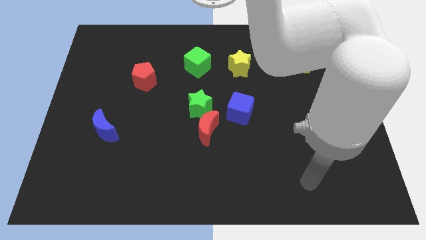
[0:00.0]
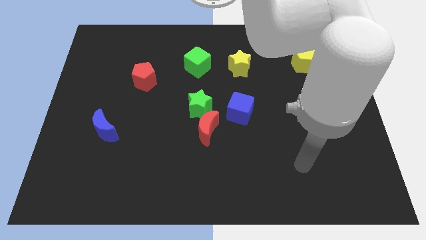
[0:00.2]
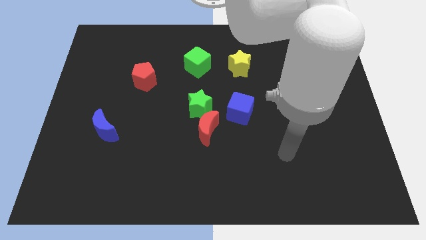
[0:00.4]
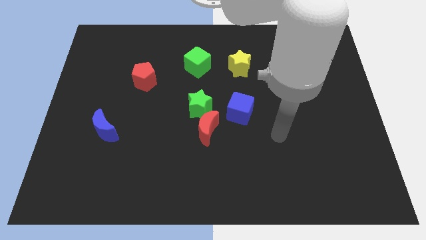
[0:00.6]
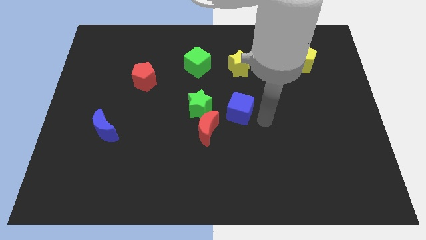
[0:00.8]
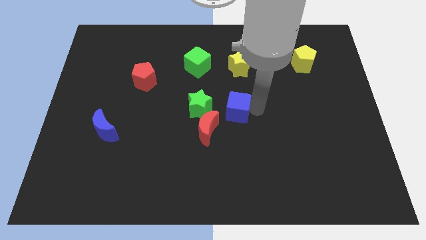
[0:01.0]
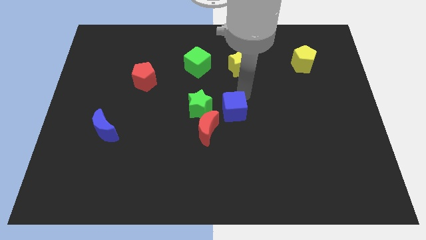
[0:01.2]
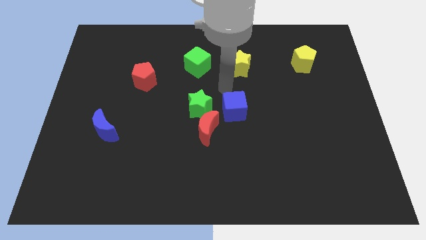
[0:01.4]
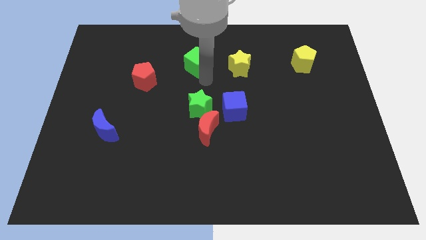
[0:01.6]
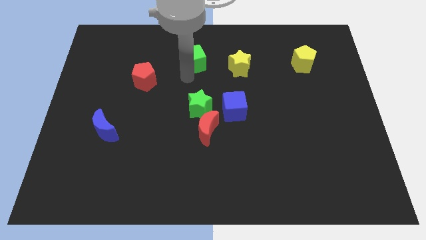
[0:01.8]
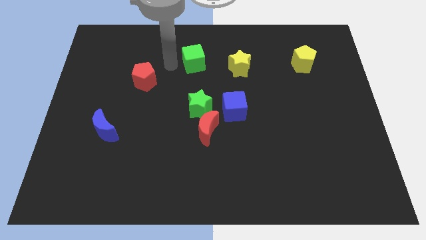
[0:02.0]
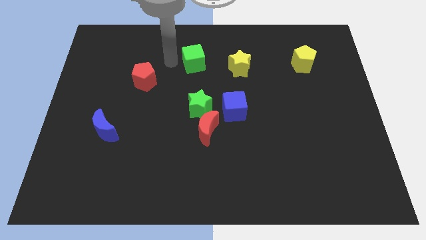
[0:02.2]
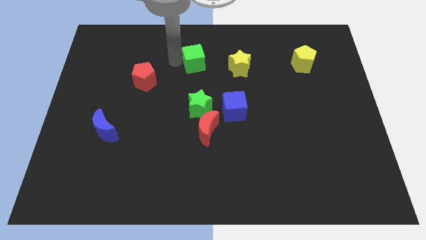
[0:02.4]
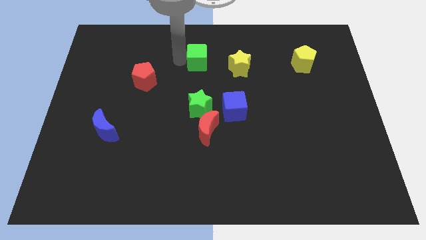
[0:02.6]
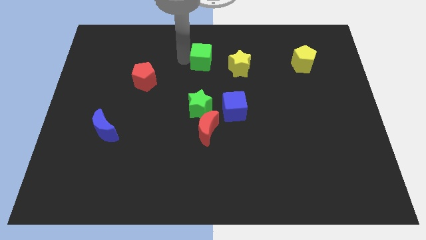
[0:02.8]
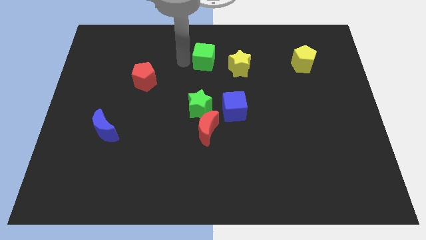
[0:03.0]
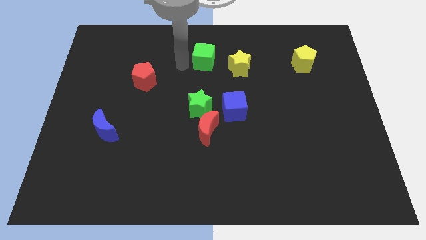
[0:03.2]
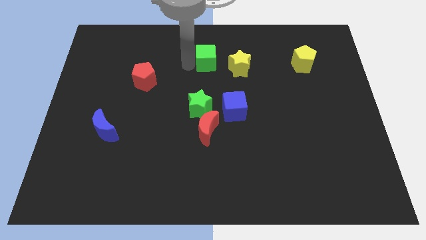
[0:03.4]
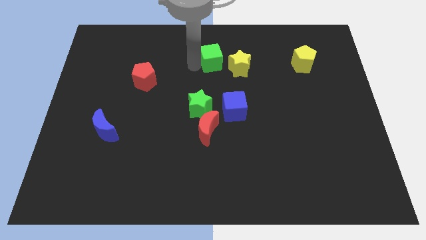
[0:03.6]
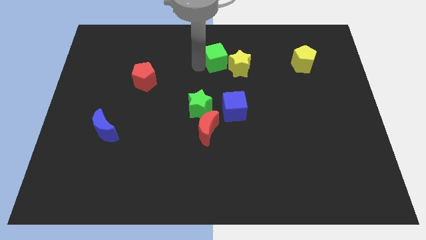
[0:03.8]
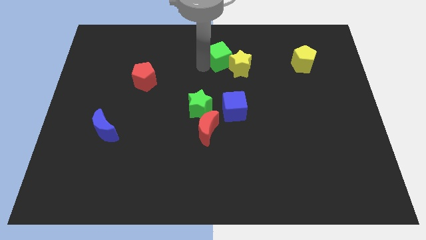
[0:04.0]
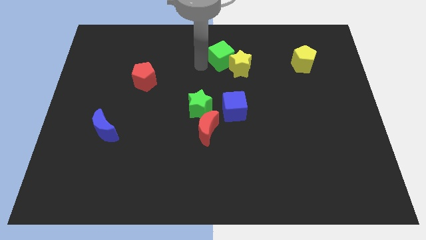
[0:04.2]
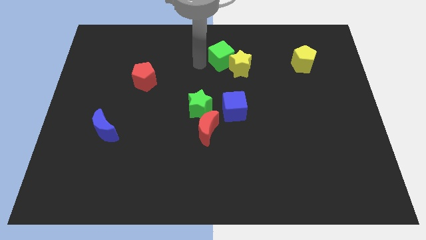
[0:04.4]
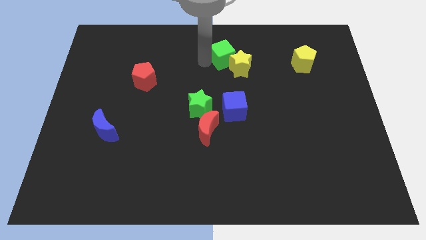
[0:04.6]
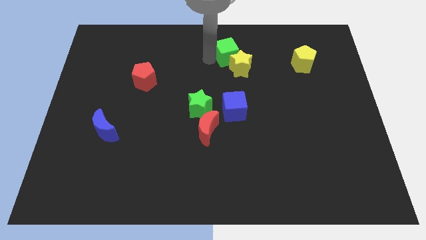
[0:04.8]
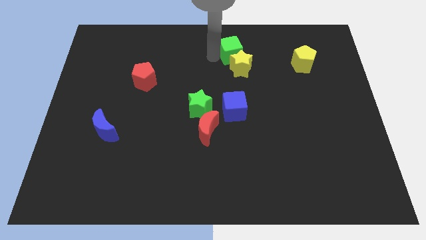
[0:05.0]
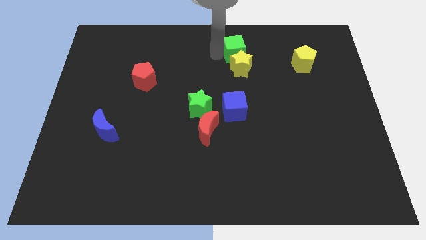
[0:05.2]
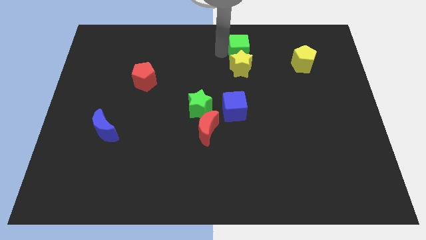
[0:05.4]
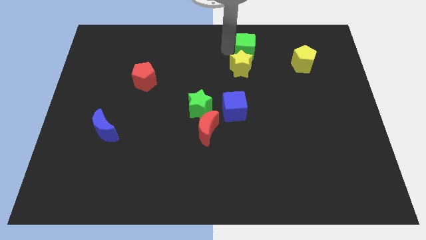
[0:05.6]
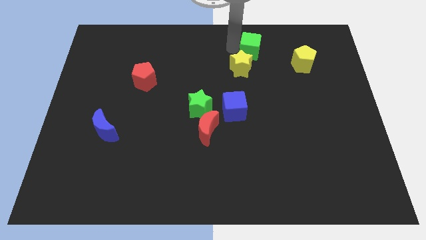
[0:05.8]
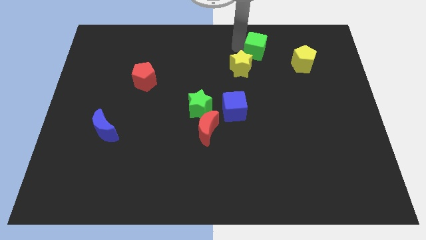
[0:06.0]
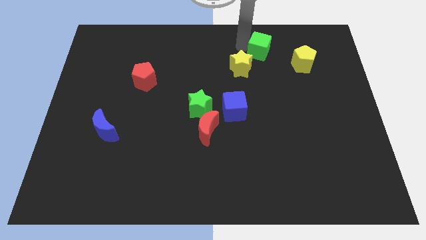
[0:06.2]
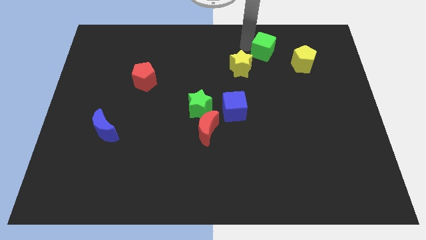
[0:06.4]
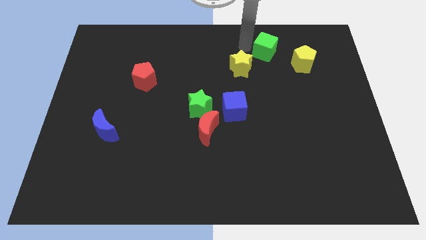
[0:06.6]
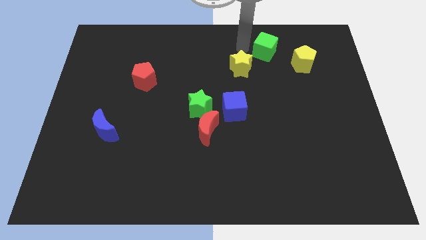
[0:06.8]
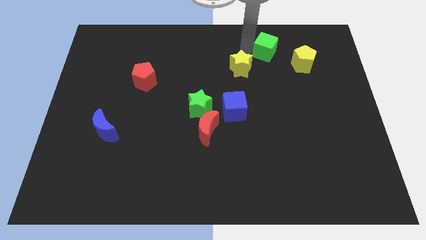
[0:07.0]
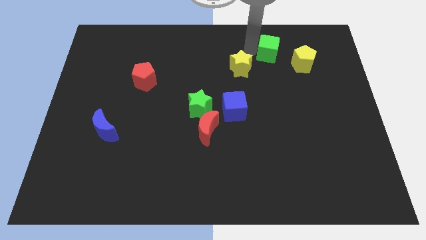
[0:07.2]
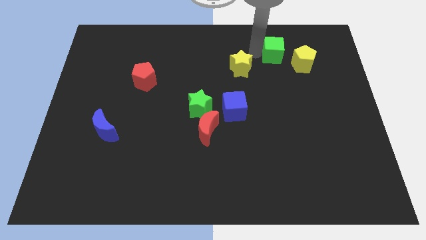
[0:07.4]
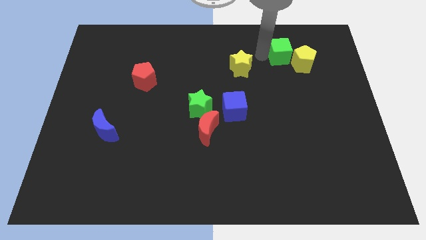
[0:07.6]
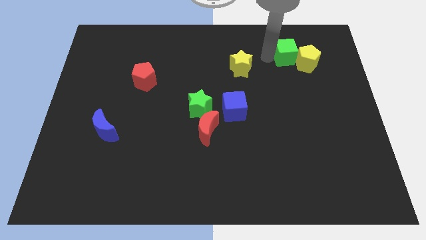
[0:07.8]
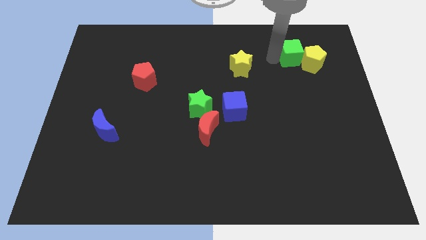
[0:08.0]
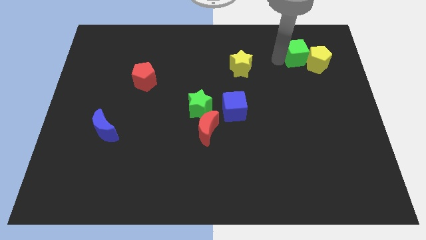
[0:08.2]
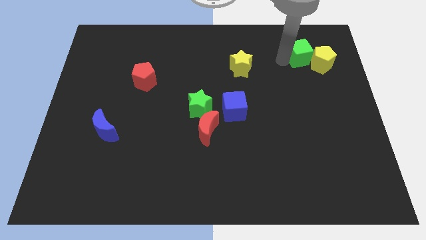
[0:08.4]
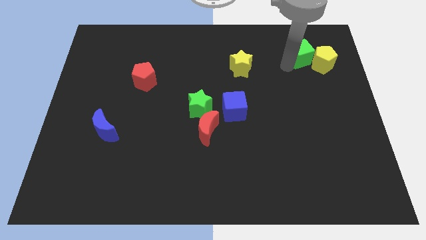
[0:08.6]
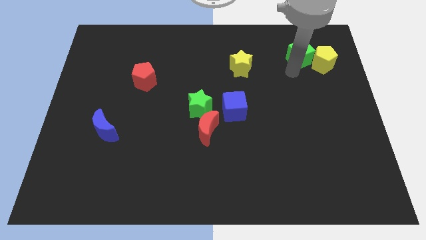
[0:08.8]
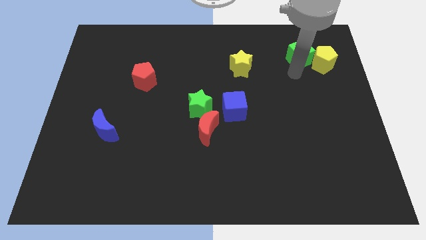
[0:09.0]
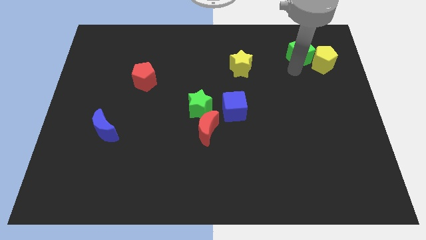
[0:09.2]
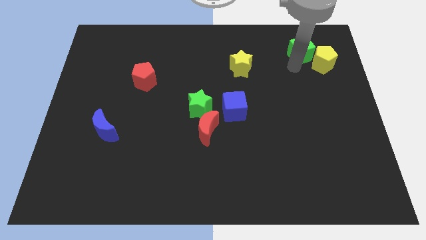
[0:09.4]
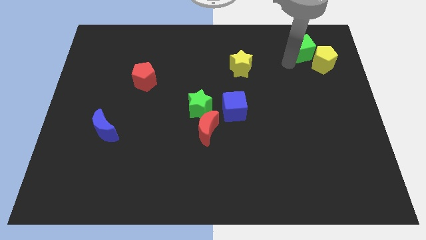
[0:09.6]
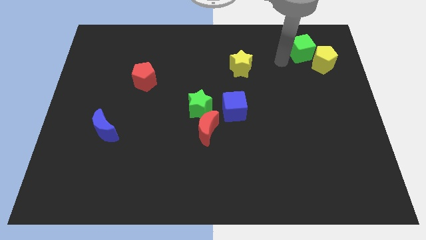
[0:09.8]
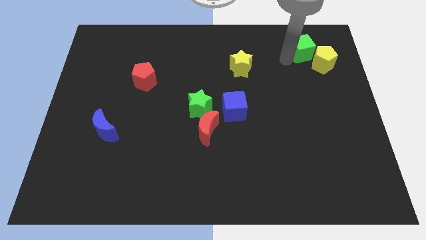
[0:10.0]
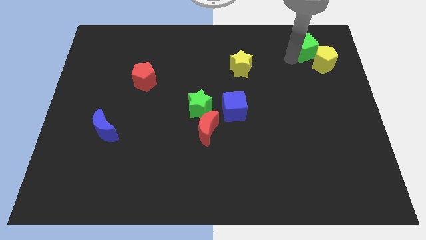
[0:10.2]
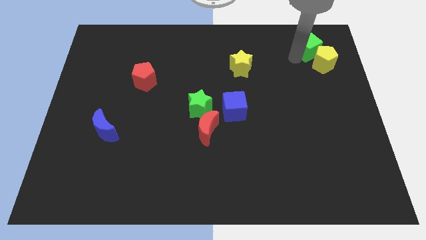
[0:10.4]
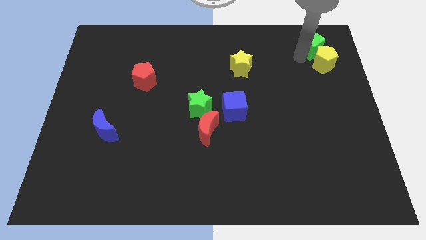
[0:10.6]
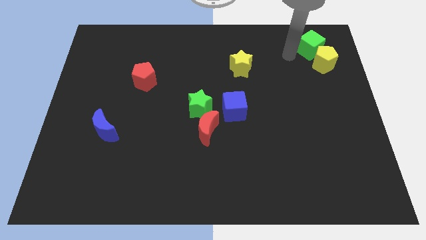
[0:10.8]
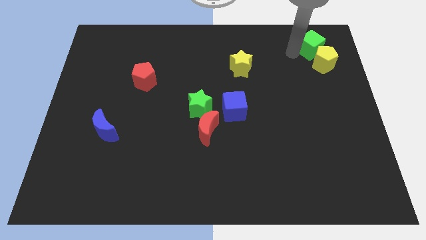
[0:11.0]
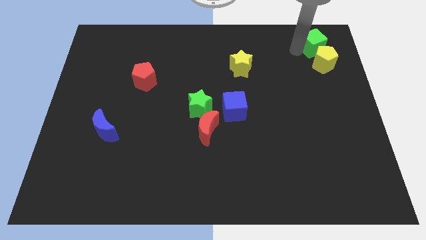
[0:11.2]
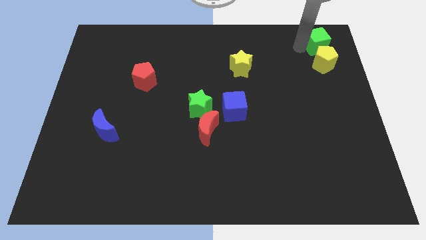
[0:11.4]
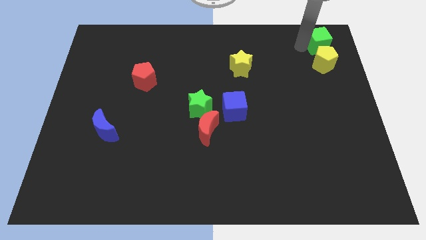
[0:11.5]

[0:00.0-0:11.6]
move the green cube to the top right

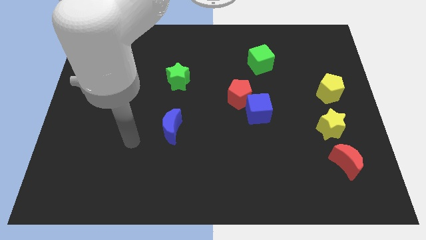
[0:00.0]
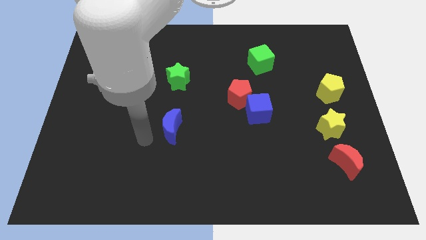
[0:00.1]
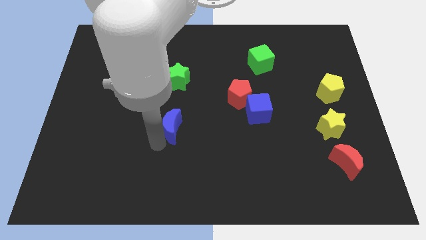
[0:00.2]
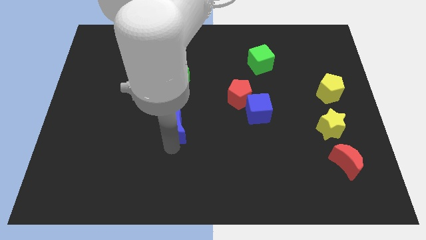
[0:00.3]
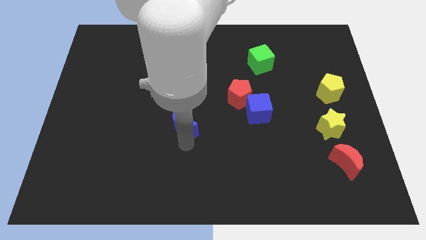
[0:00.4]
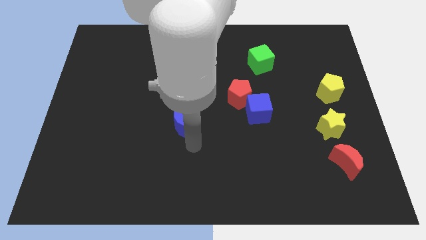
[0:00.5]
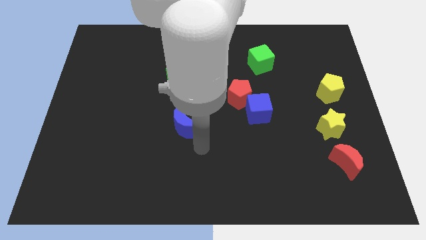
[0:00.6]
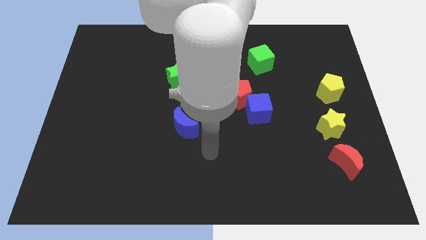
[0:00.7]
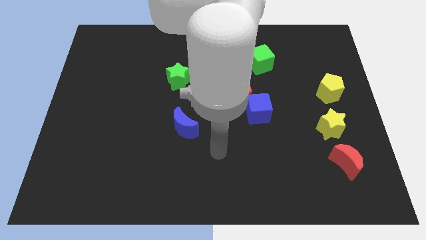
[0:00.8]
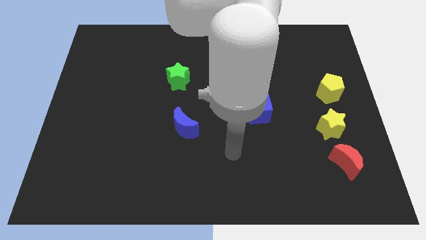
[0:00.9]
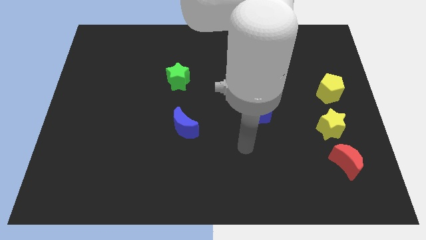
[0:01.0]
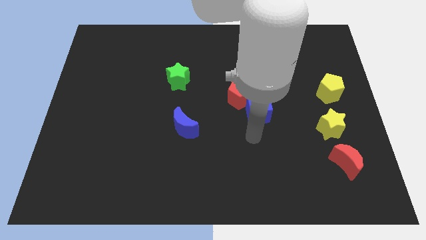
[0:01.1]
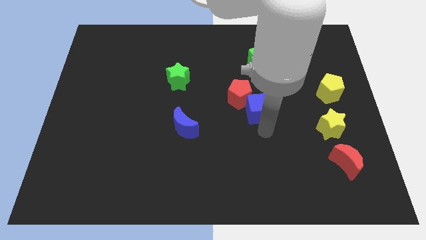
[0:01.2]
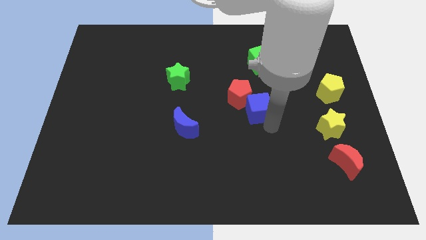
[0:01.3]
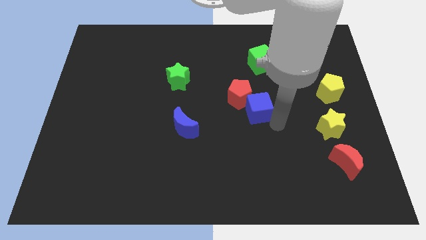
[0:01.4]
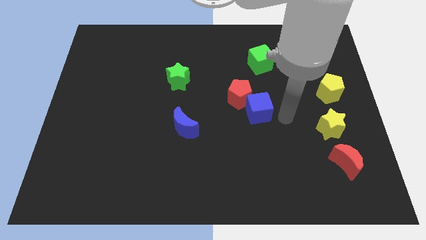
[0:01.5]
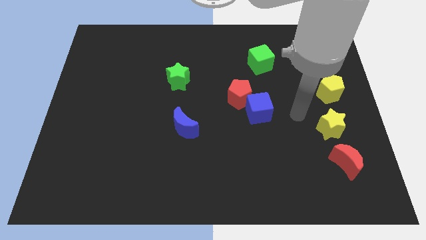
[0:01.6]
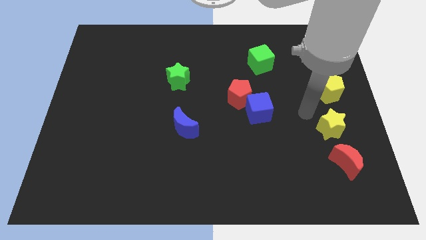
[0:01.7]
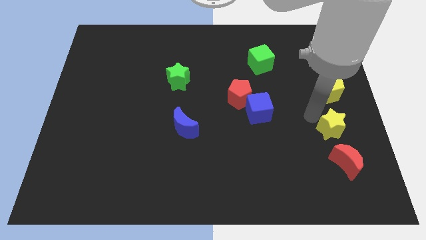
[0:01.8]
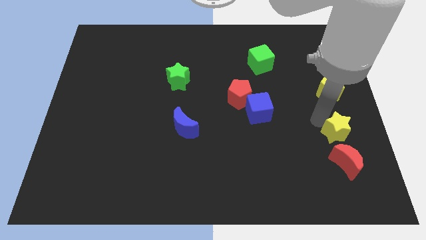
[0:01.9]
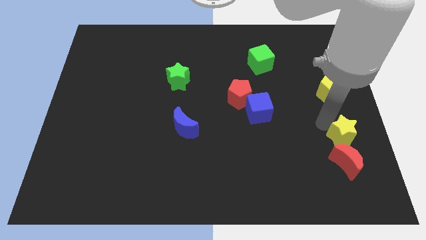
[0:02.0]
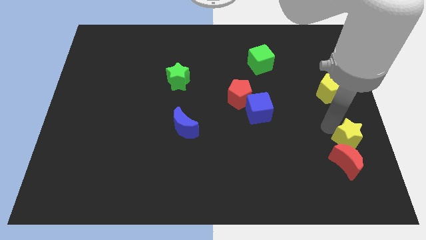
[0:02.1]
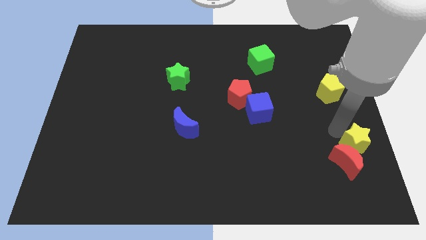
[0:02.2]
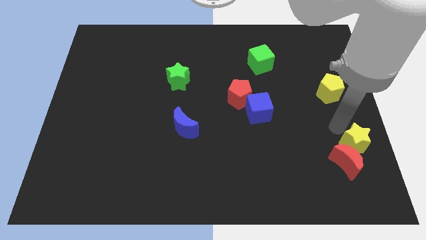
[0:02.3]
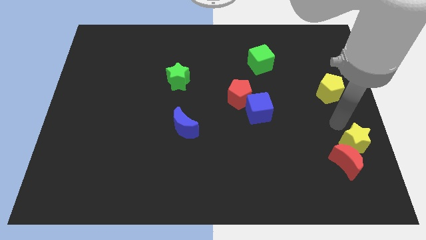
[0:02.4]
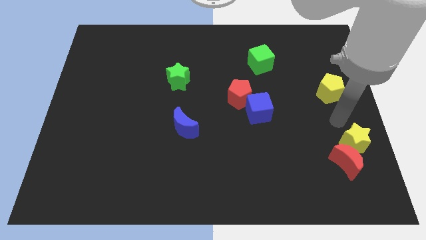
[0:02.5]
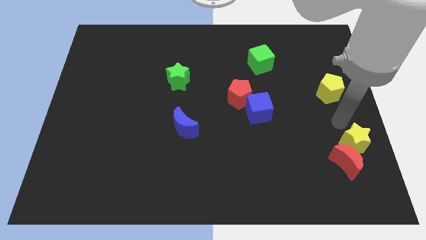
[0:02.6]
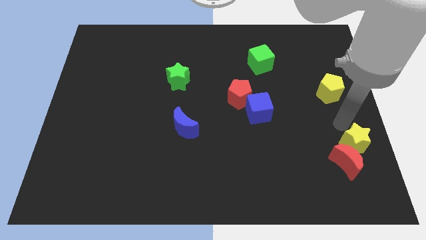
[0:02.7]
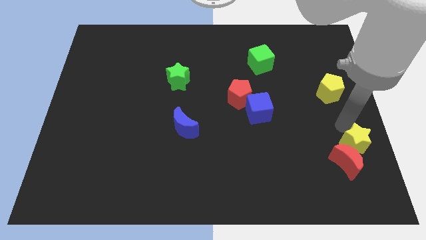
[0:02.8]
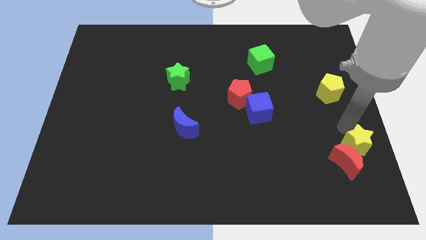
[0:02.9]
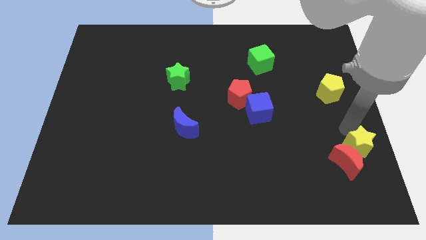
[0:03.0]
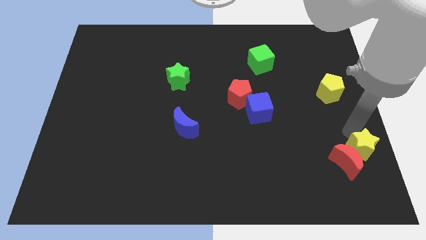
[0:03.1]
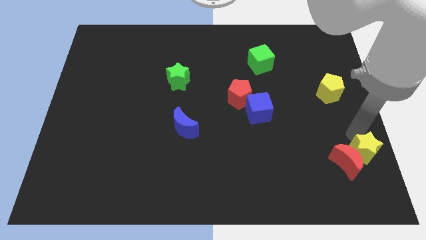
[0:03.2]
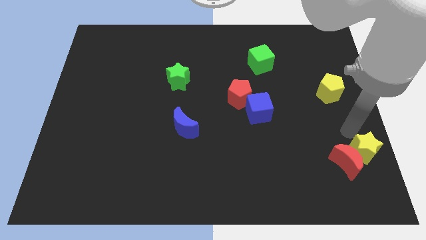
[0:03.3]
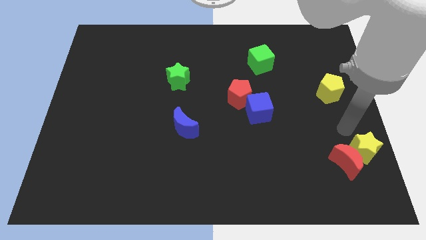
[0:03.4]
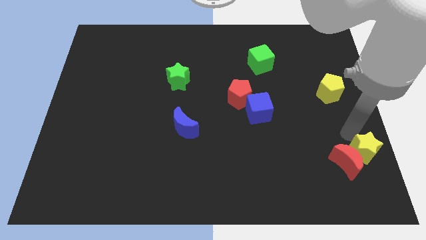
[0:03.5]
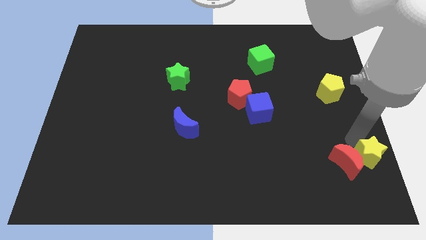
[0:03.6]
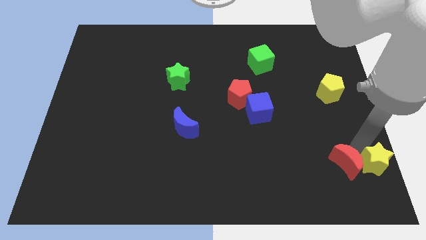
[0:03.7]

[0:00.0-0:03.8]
put the yellow star to the bottom right corner
